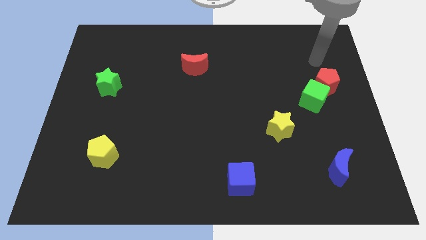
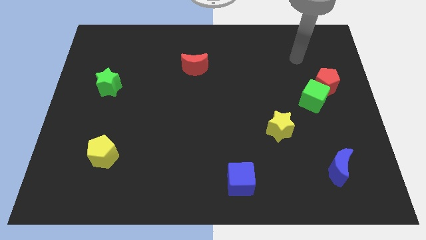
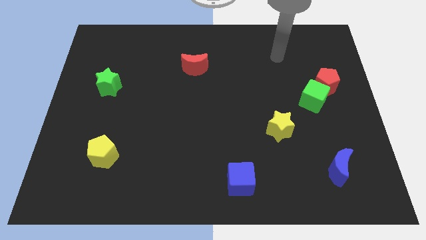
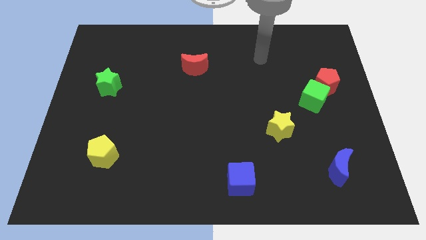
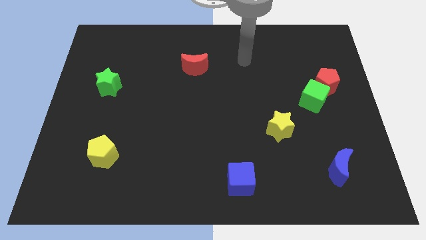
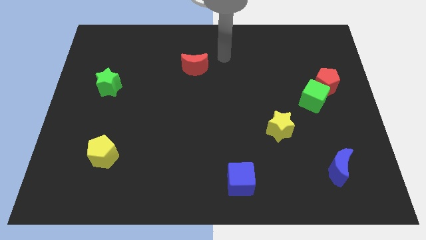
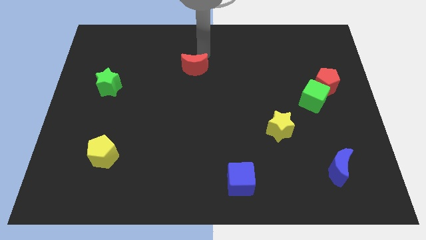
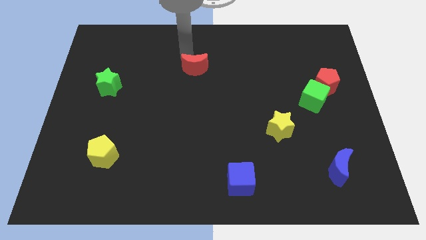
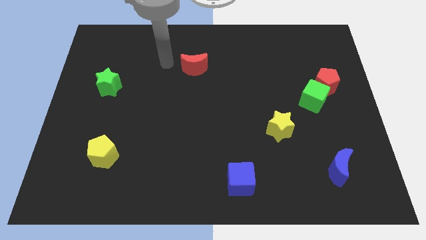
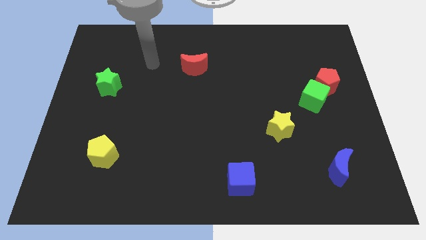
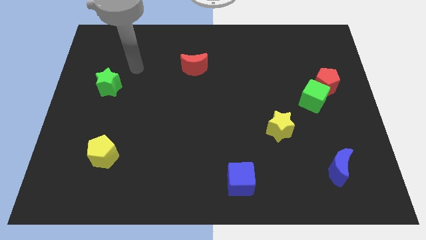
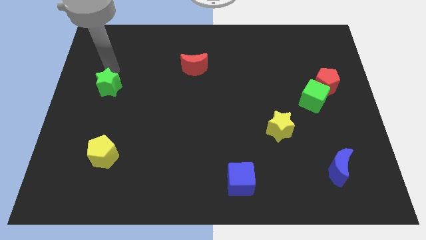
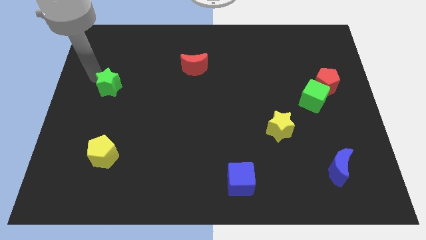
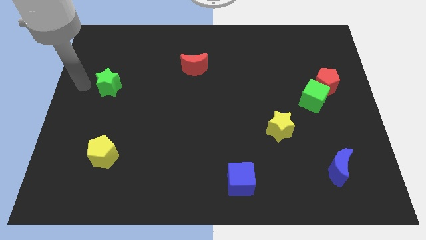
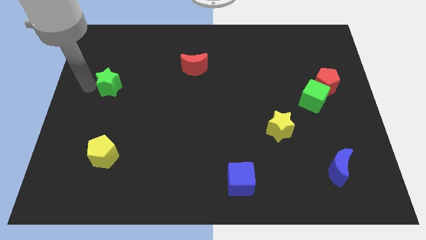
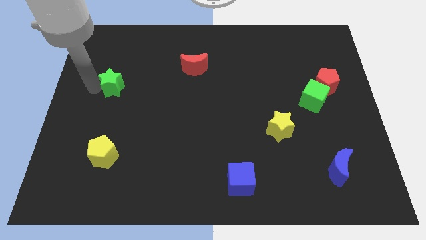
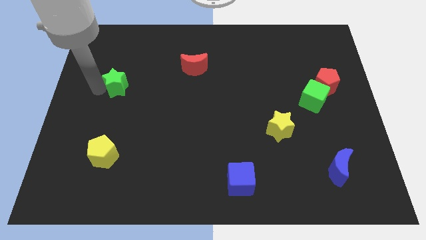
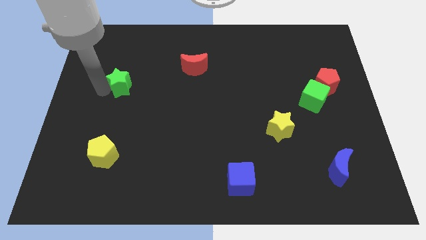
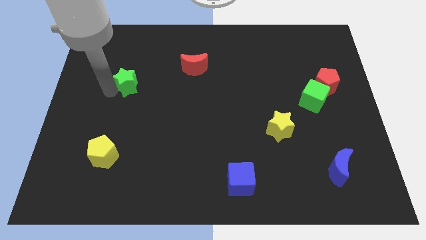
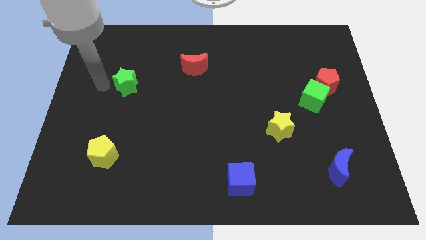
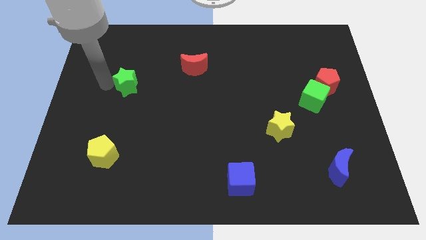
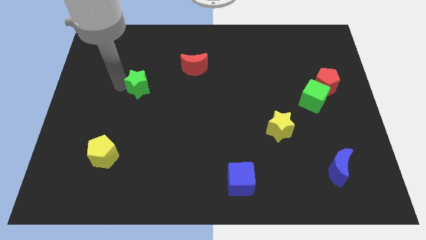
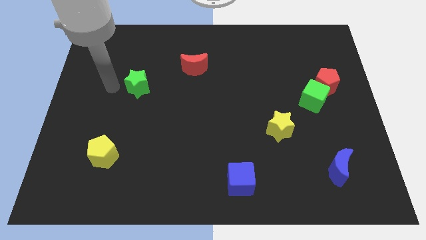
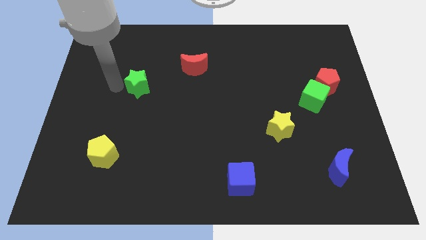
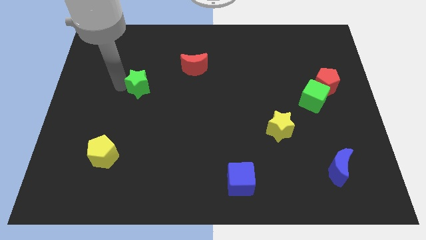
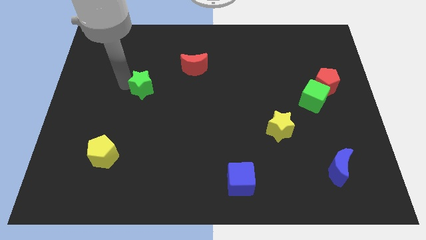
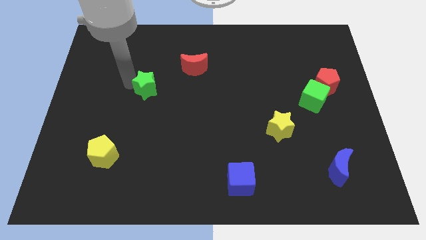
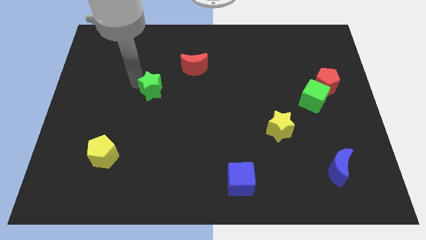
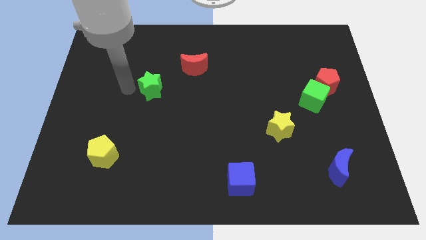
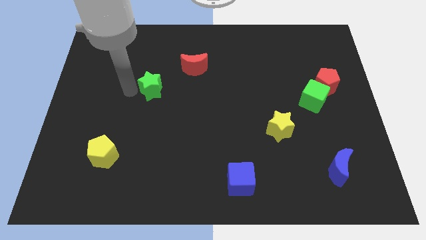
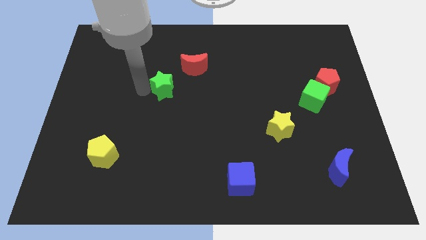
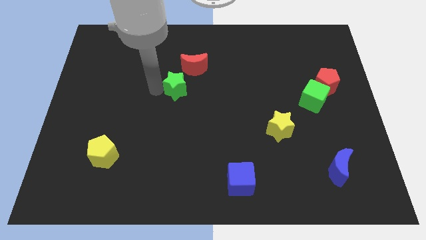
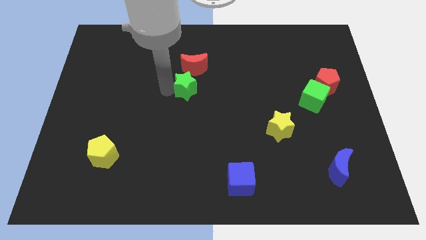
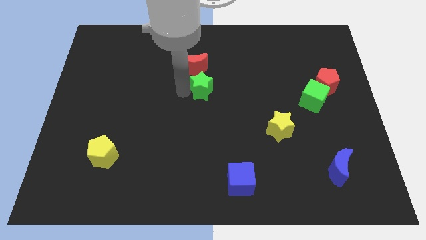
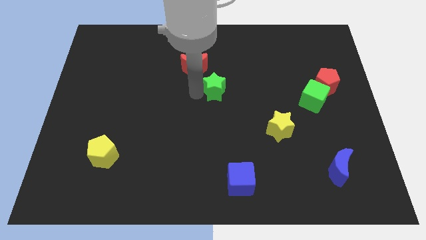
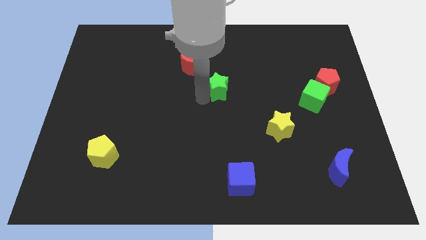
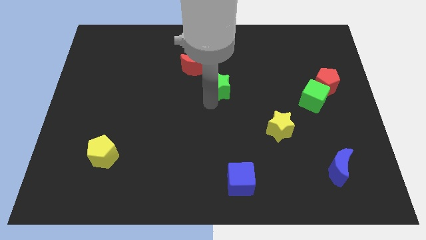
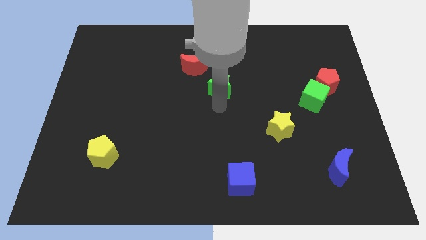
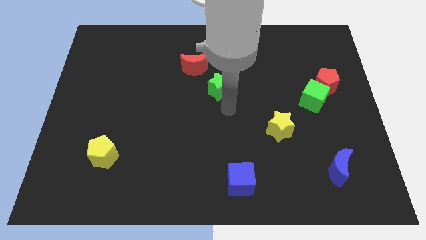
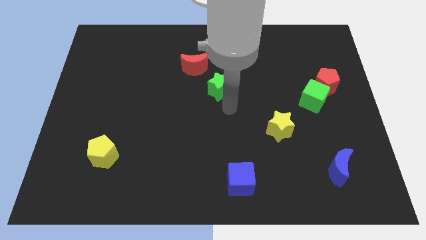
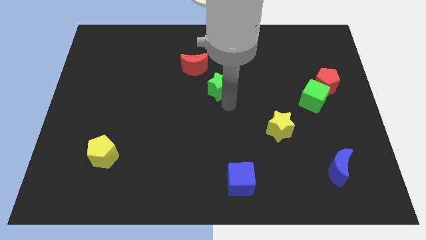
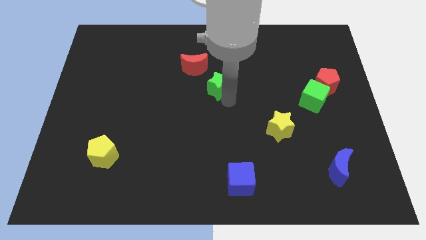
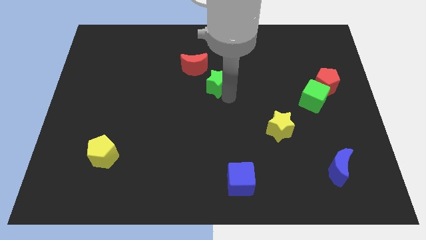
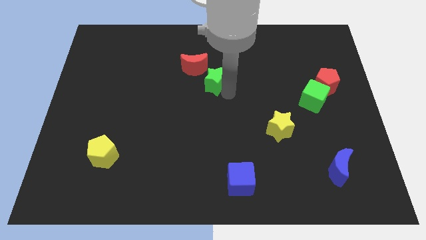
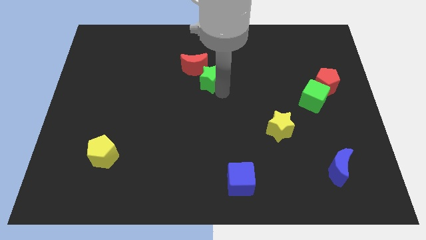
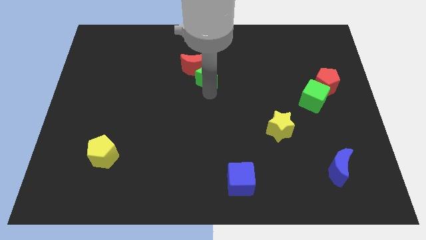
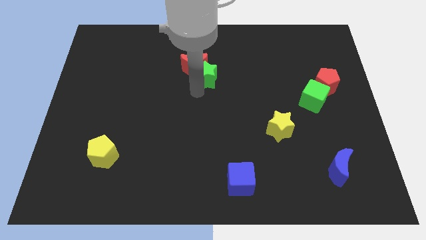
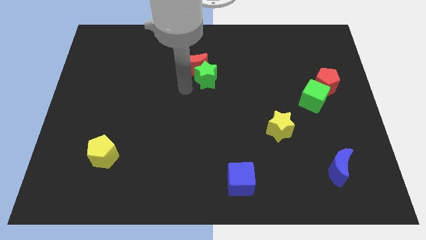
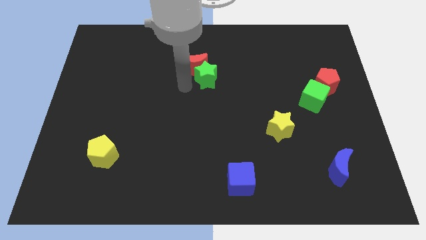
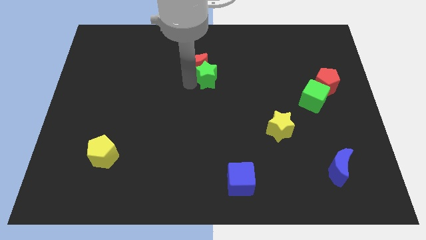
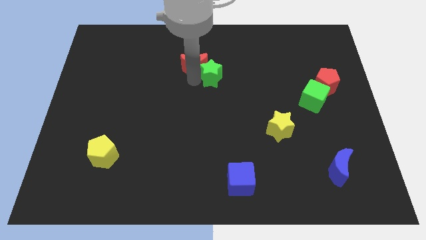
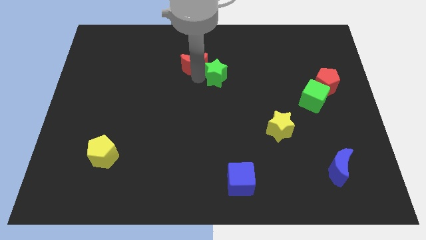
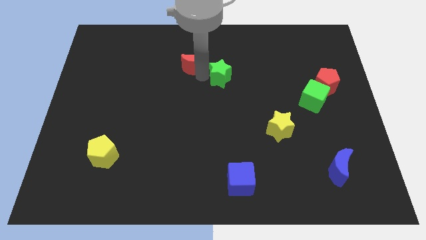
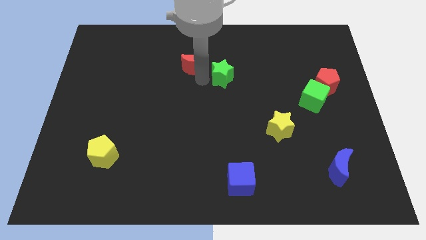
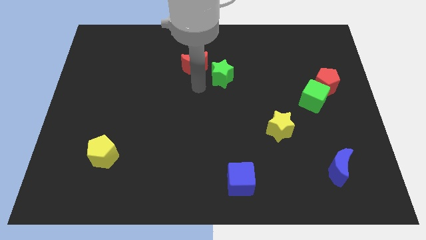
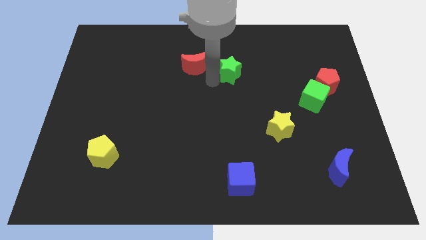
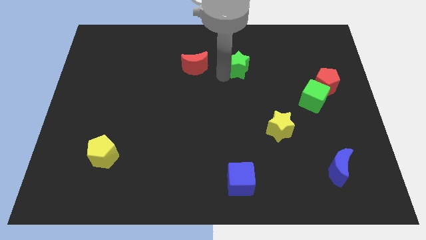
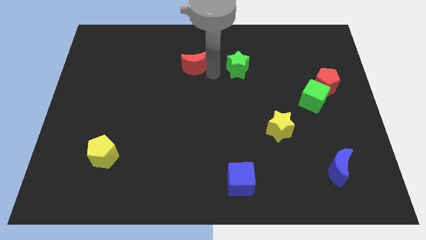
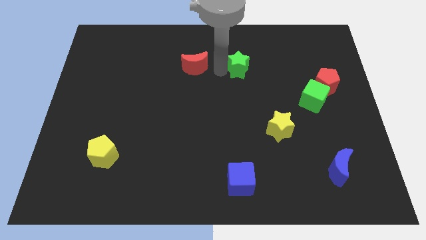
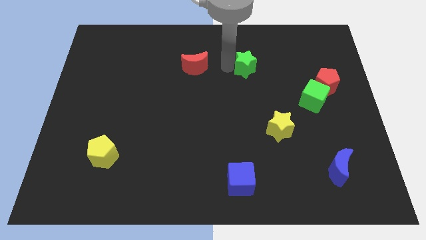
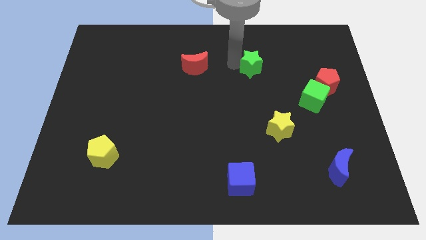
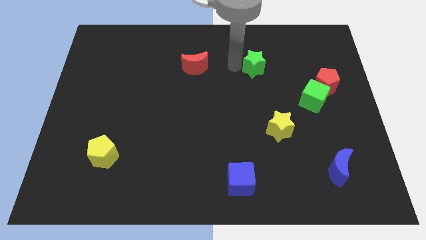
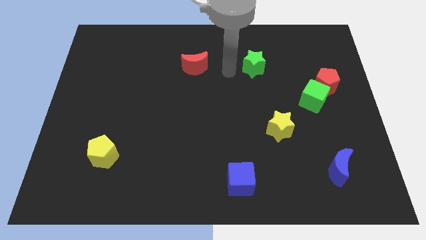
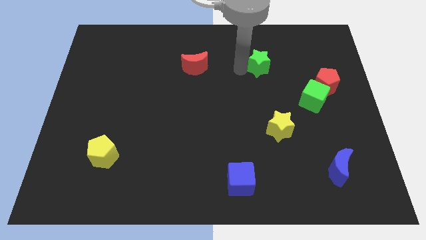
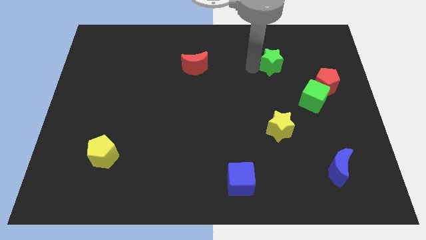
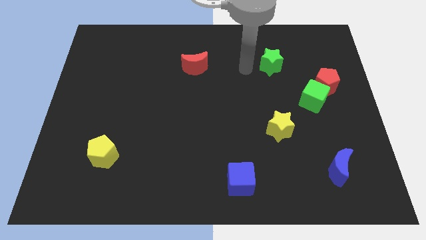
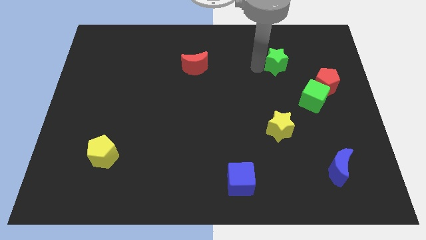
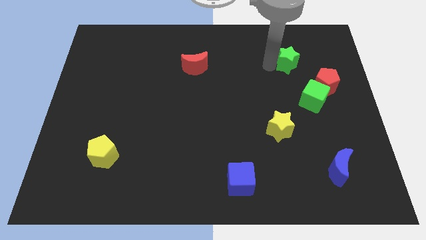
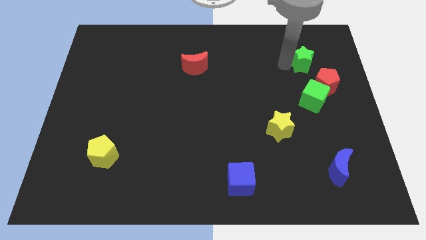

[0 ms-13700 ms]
slide the green star to the top side of the red pentagon
